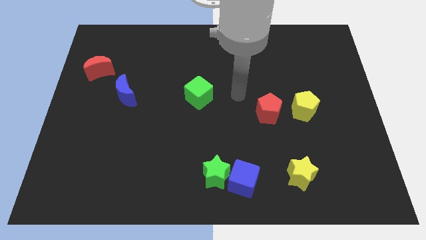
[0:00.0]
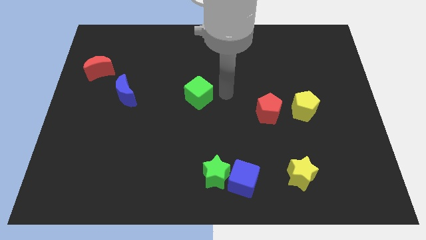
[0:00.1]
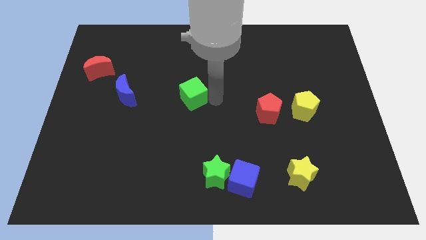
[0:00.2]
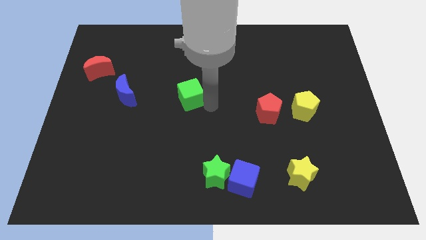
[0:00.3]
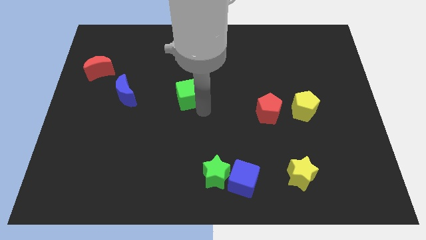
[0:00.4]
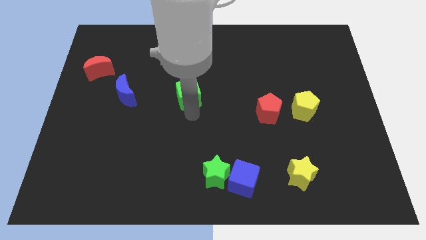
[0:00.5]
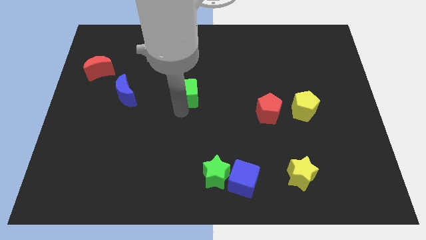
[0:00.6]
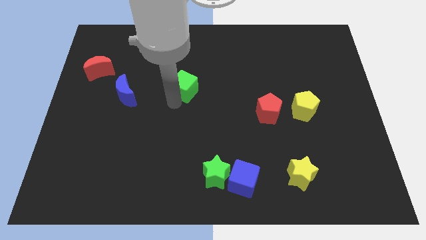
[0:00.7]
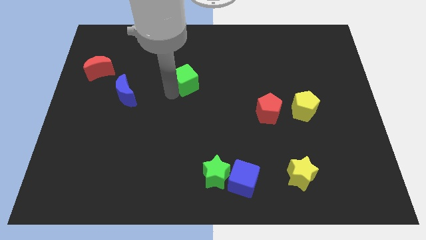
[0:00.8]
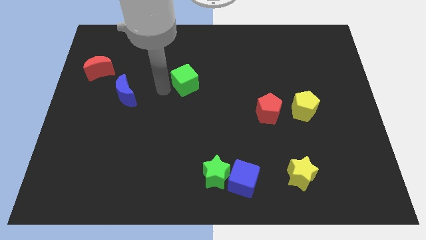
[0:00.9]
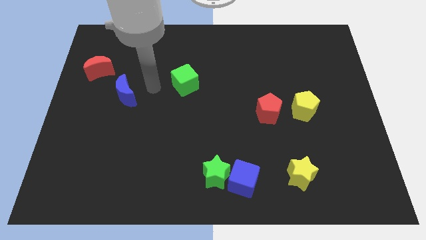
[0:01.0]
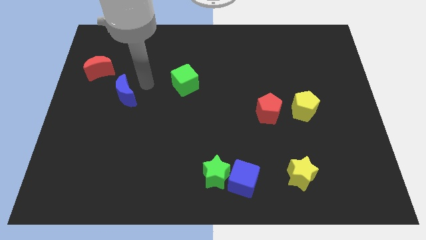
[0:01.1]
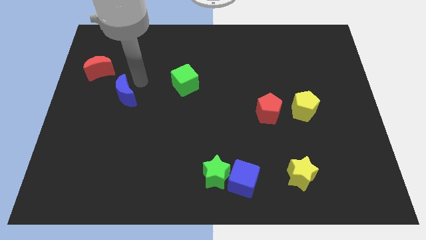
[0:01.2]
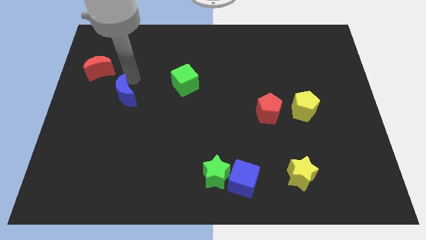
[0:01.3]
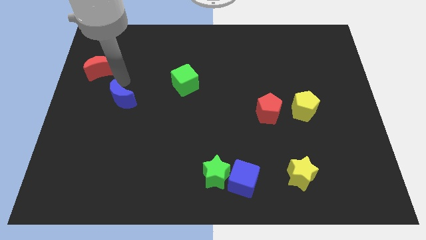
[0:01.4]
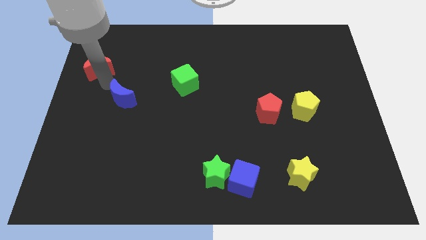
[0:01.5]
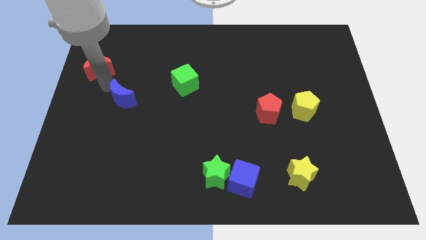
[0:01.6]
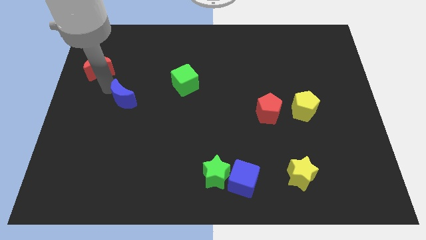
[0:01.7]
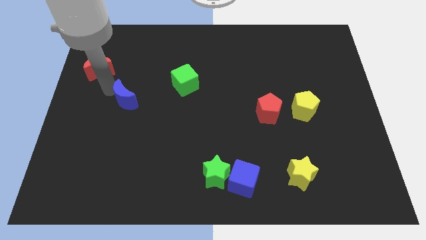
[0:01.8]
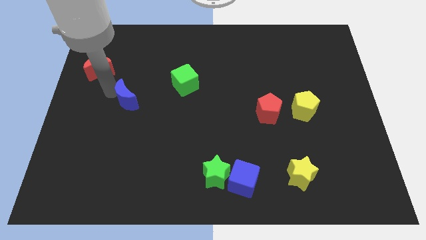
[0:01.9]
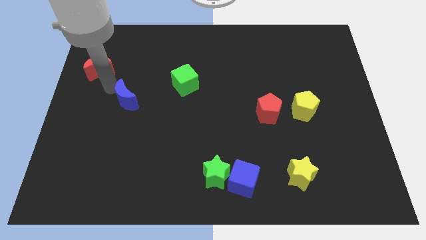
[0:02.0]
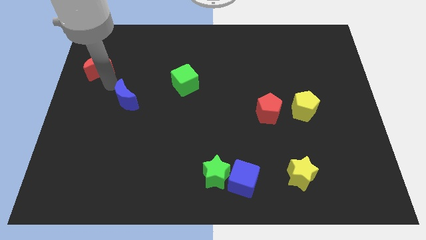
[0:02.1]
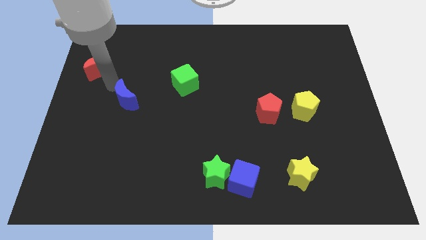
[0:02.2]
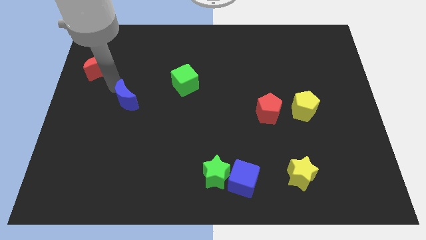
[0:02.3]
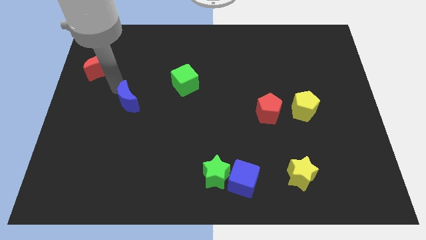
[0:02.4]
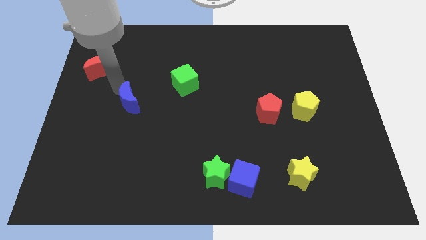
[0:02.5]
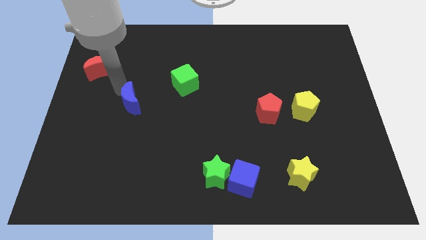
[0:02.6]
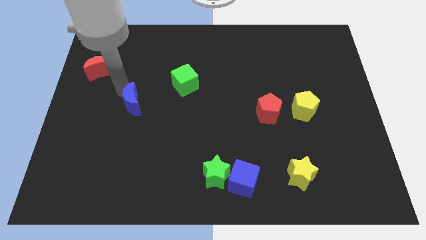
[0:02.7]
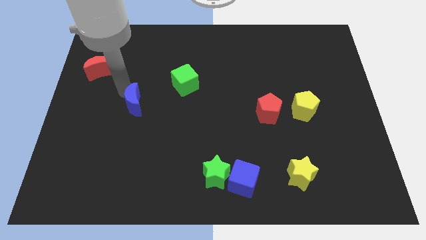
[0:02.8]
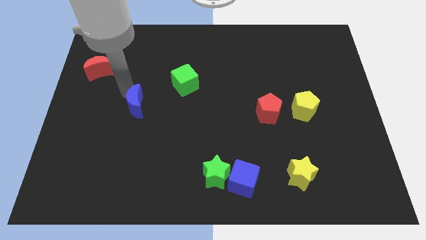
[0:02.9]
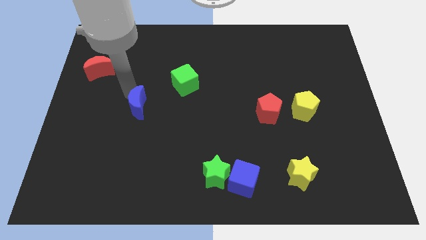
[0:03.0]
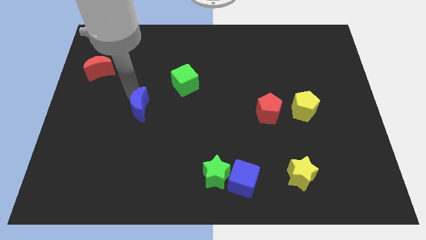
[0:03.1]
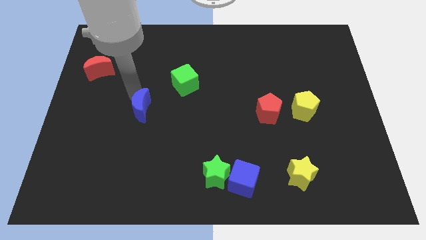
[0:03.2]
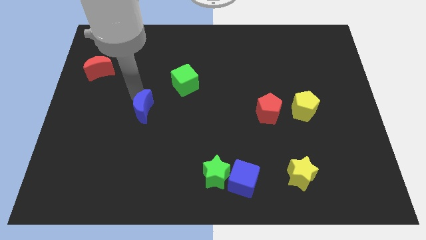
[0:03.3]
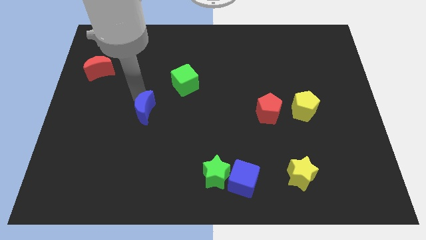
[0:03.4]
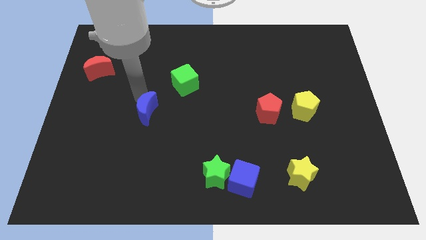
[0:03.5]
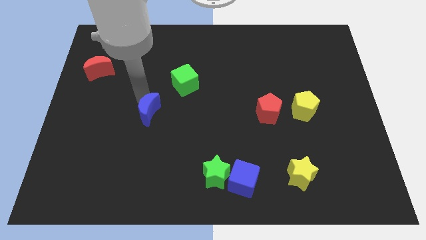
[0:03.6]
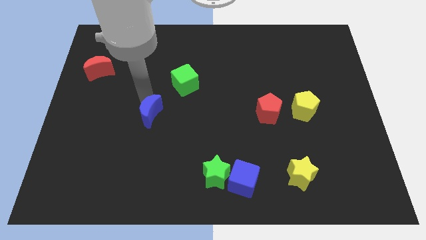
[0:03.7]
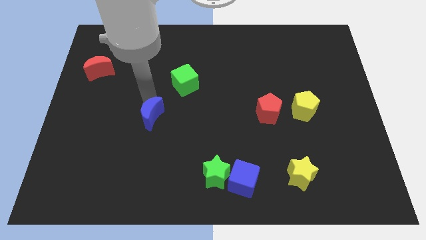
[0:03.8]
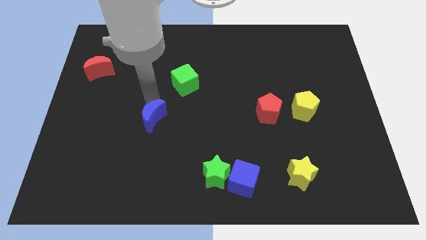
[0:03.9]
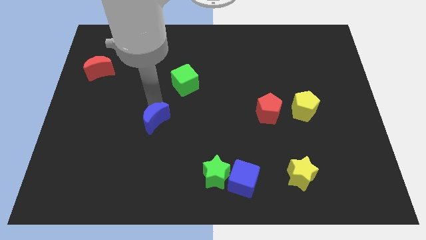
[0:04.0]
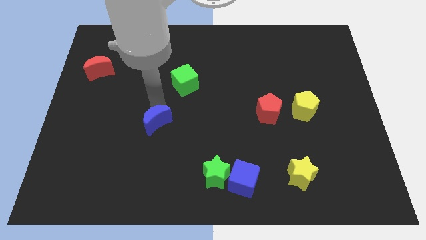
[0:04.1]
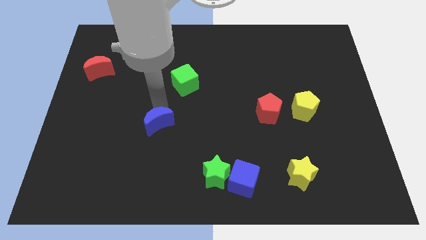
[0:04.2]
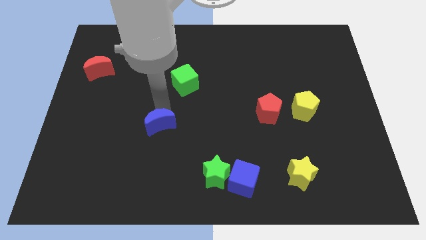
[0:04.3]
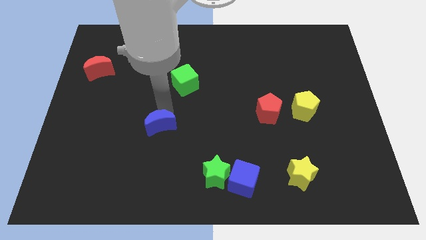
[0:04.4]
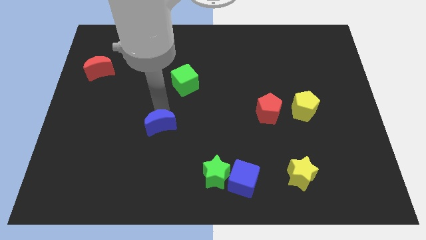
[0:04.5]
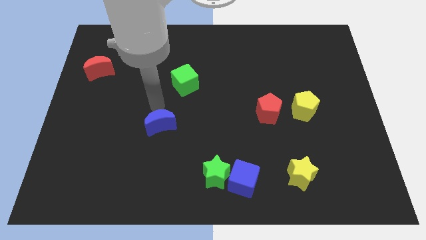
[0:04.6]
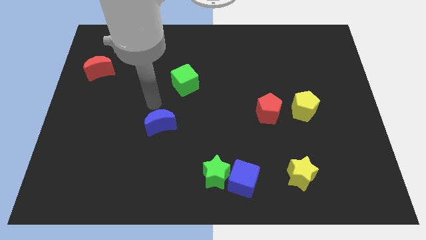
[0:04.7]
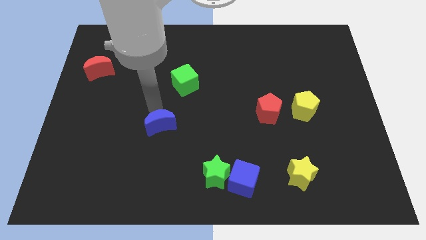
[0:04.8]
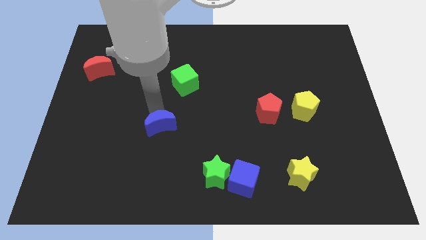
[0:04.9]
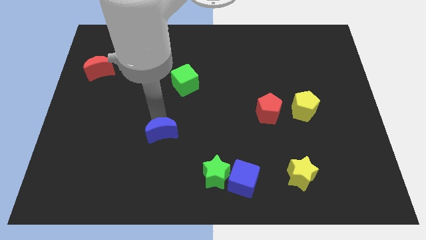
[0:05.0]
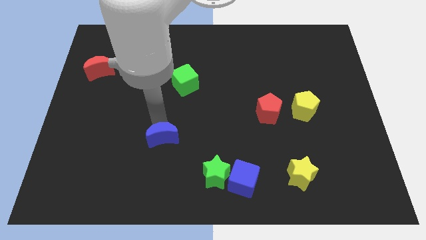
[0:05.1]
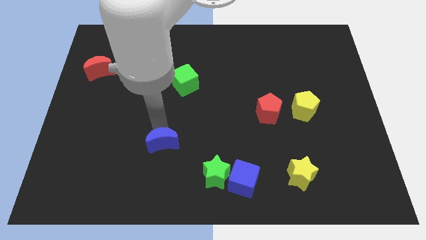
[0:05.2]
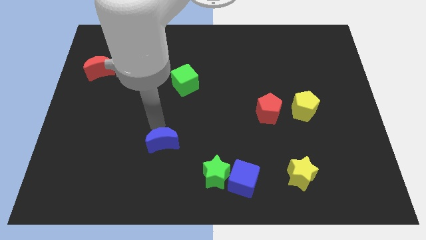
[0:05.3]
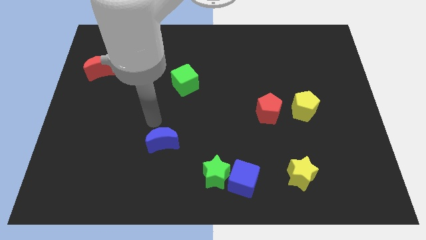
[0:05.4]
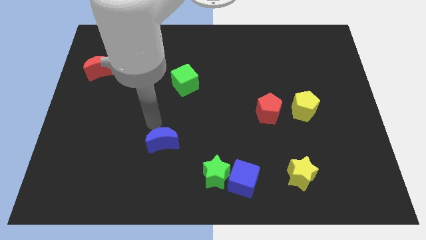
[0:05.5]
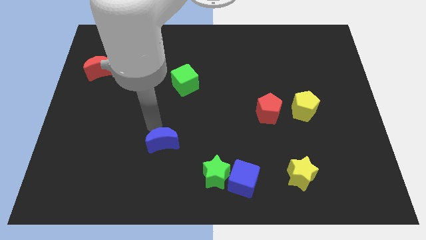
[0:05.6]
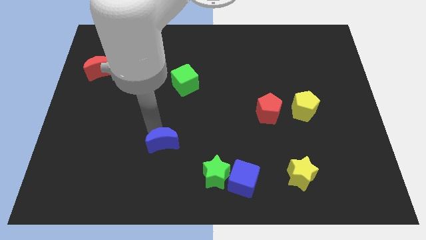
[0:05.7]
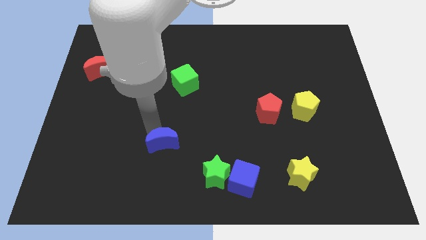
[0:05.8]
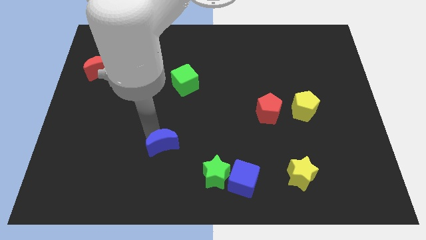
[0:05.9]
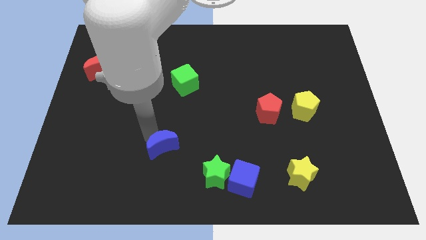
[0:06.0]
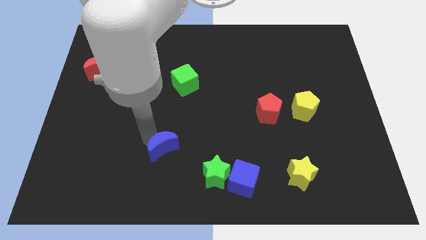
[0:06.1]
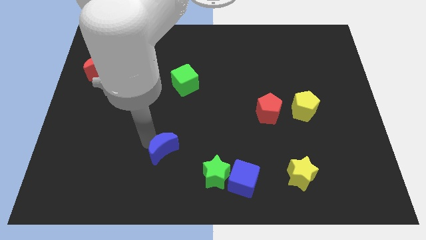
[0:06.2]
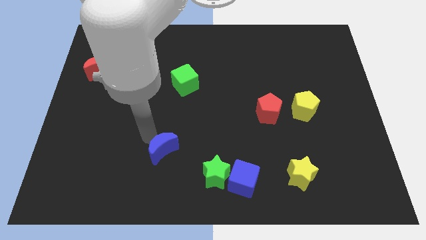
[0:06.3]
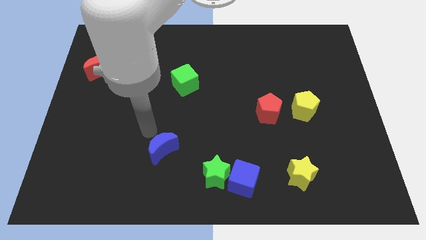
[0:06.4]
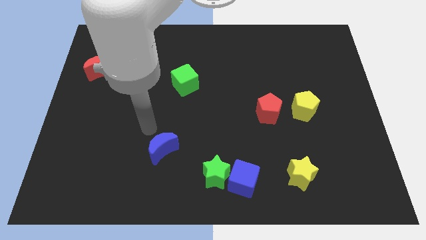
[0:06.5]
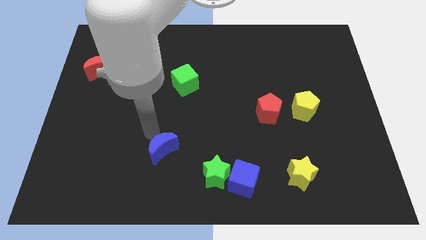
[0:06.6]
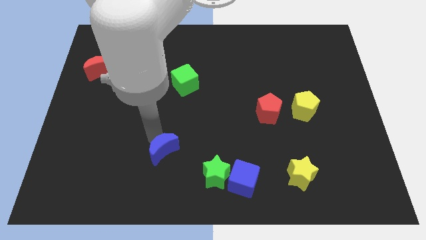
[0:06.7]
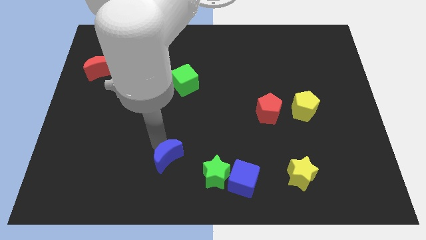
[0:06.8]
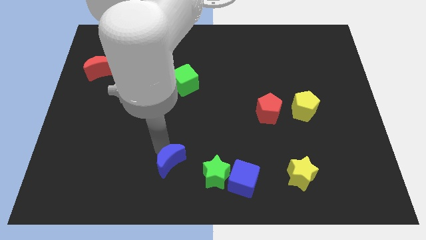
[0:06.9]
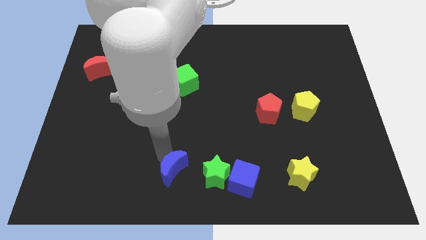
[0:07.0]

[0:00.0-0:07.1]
put the blue moon to the bottom side
